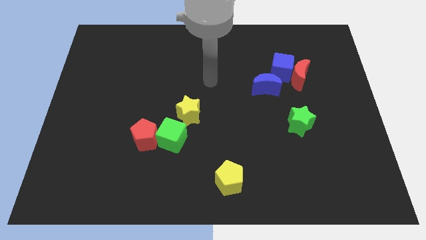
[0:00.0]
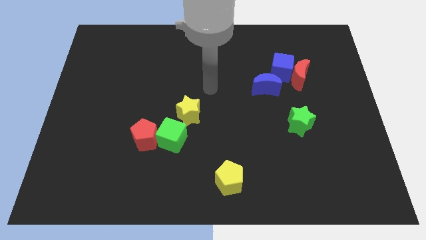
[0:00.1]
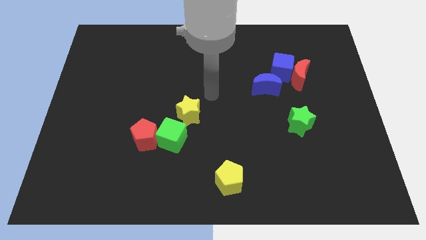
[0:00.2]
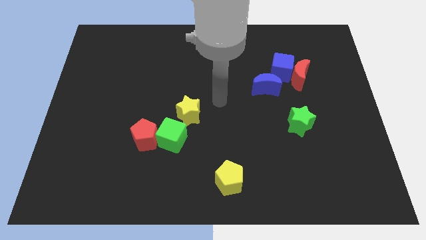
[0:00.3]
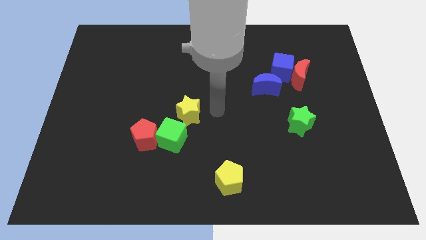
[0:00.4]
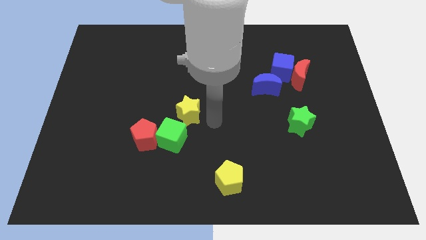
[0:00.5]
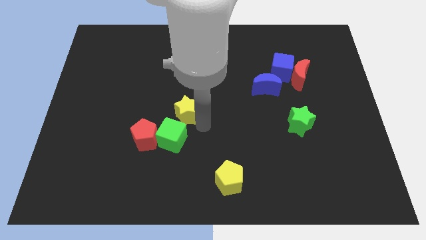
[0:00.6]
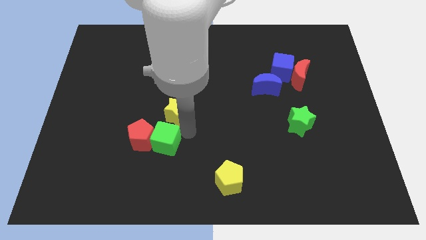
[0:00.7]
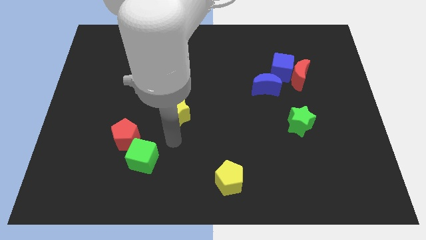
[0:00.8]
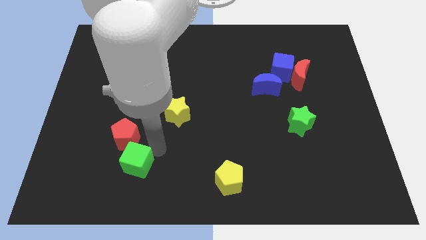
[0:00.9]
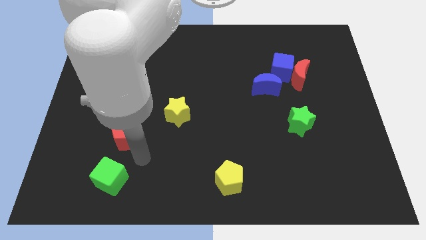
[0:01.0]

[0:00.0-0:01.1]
separate the red pentagon from the green cube

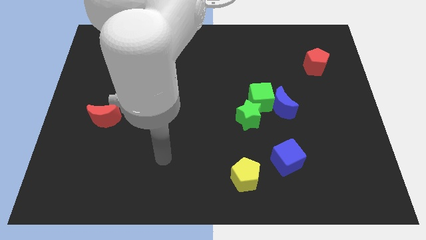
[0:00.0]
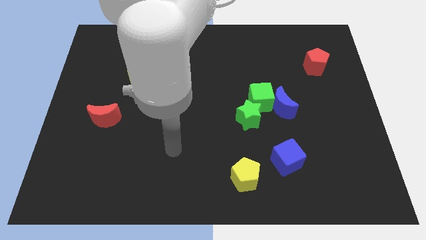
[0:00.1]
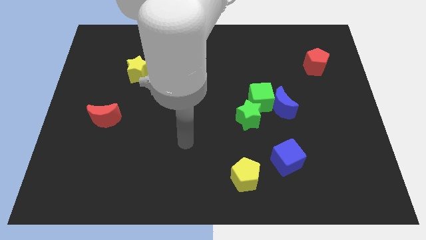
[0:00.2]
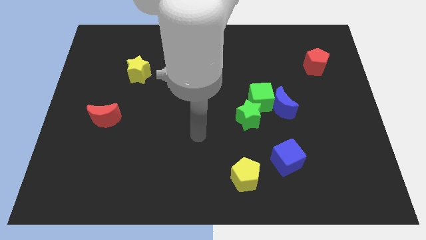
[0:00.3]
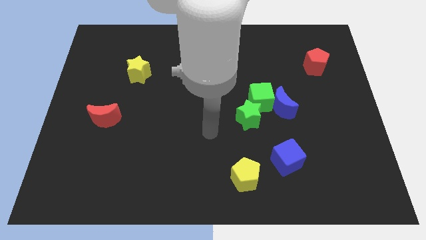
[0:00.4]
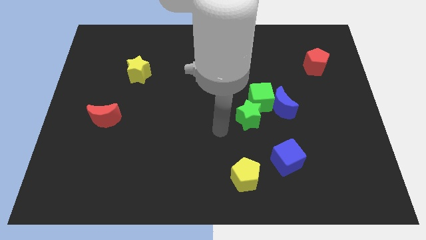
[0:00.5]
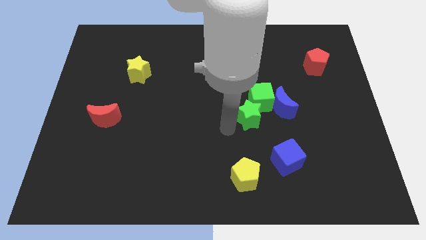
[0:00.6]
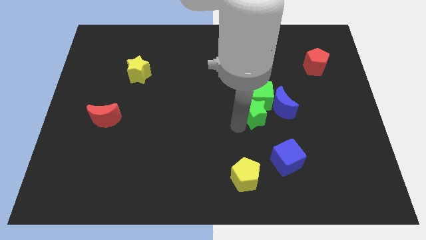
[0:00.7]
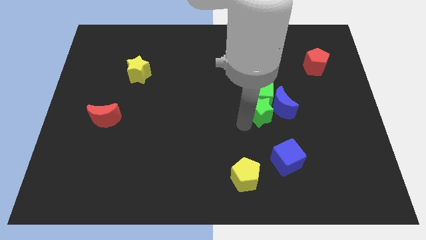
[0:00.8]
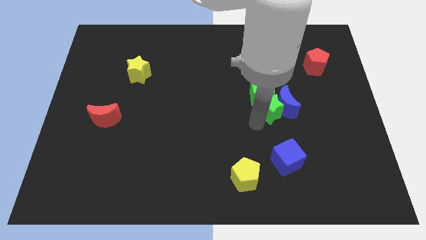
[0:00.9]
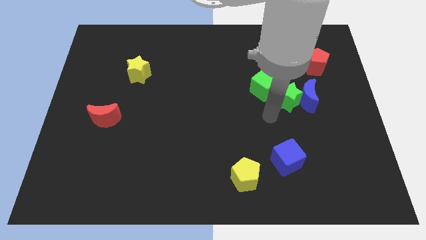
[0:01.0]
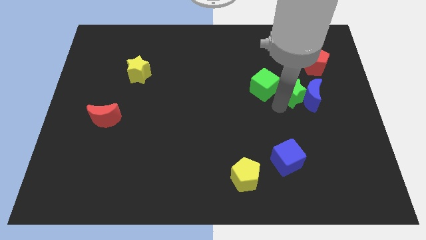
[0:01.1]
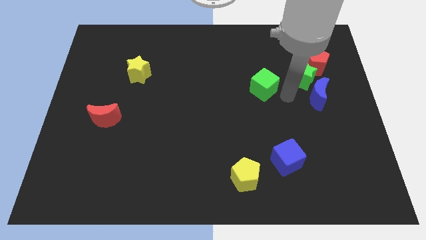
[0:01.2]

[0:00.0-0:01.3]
pull the green cube apart from the blue moon and green star

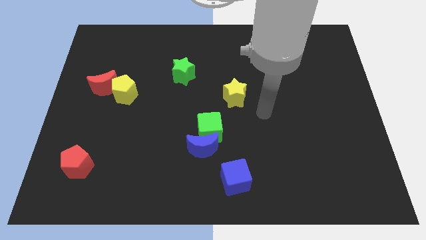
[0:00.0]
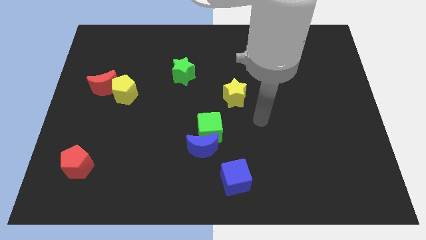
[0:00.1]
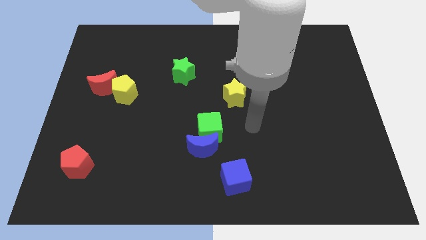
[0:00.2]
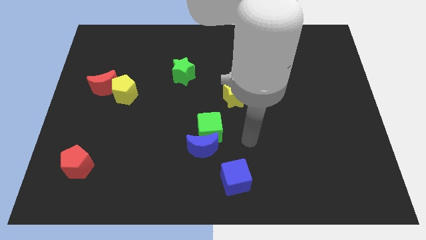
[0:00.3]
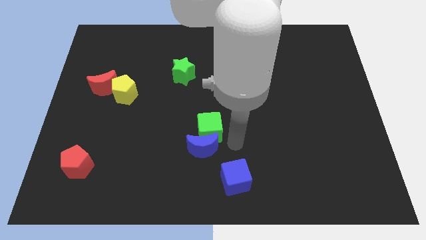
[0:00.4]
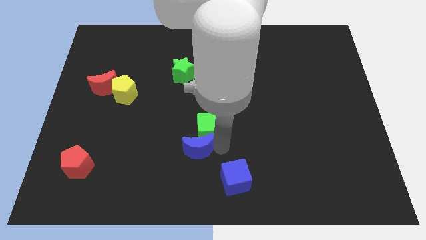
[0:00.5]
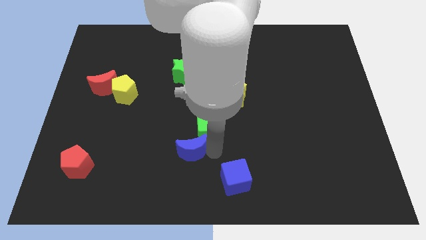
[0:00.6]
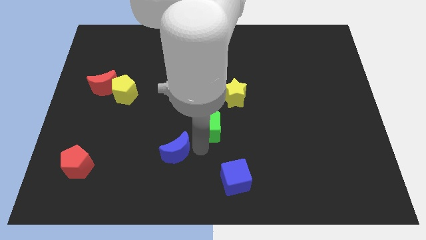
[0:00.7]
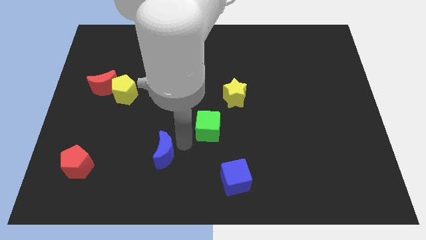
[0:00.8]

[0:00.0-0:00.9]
separate the green cube from the blue moon

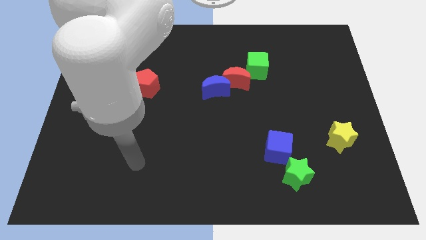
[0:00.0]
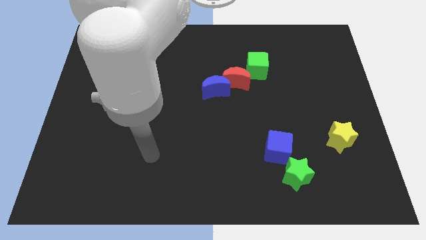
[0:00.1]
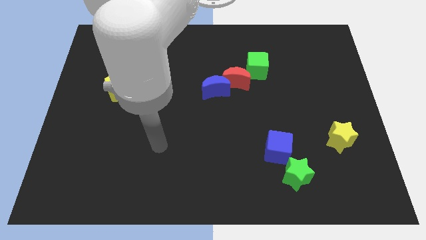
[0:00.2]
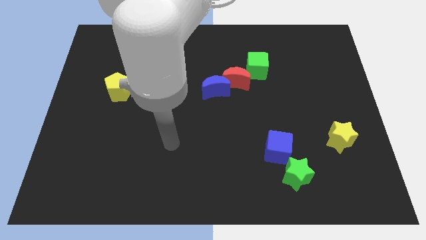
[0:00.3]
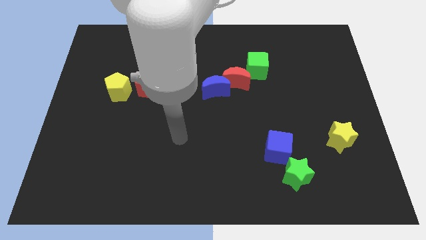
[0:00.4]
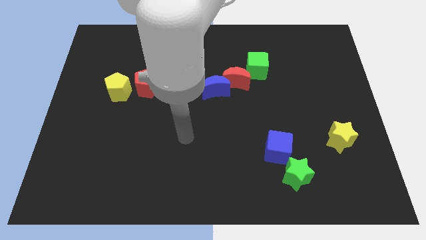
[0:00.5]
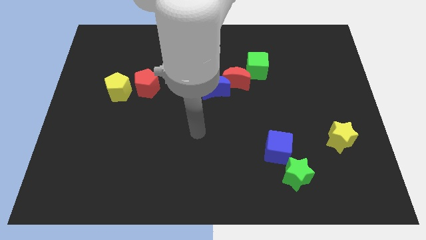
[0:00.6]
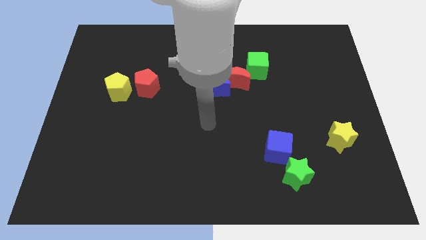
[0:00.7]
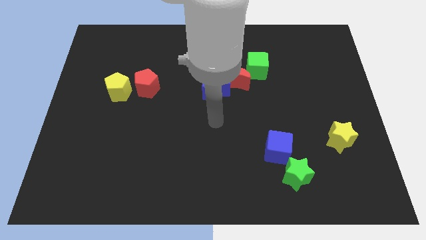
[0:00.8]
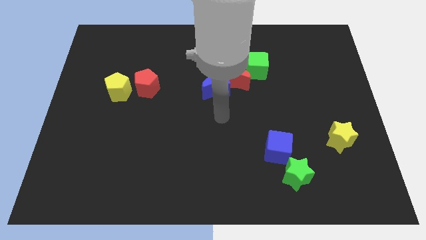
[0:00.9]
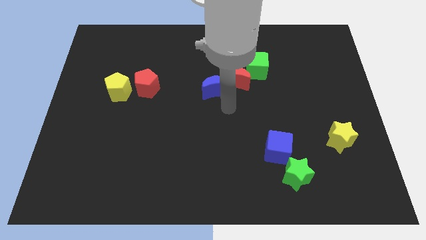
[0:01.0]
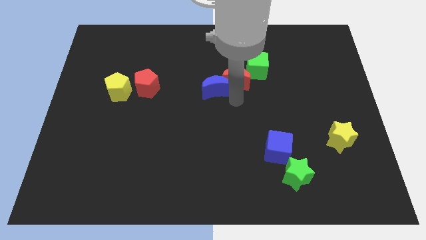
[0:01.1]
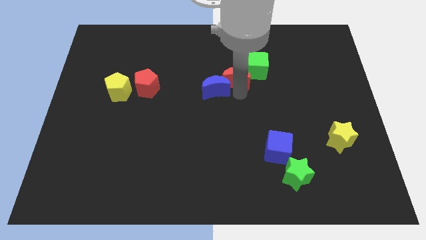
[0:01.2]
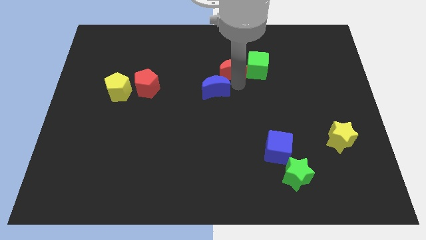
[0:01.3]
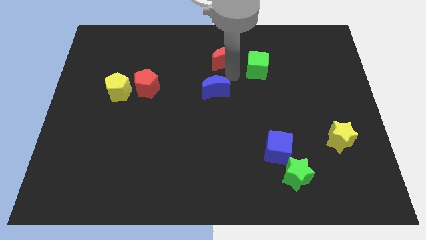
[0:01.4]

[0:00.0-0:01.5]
separate the blue moon from the red moon

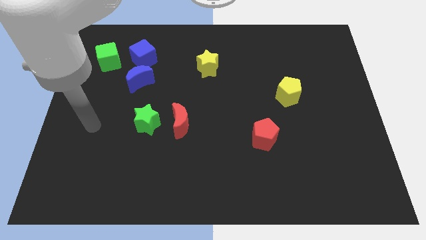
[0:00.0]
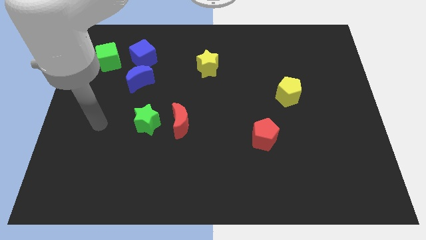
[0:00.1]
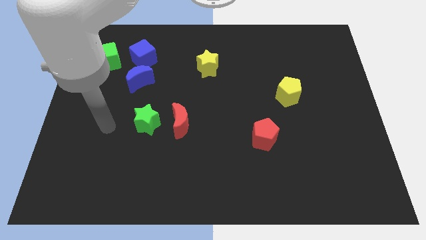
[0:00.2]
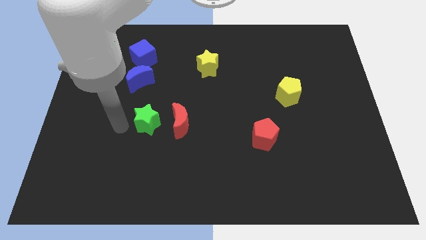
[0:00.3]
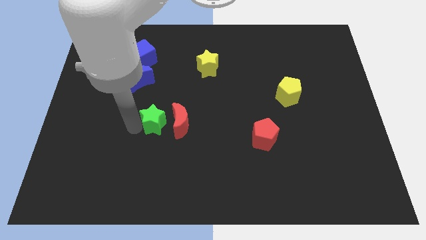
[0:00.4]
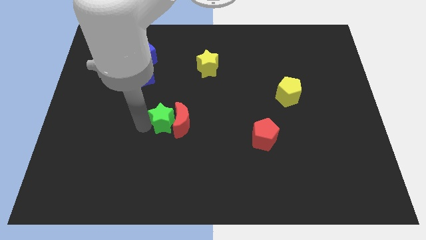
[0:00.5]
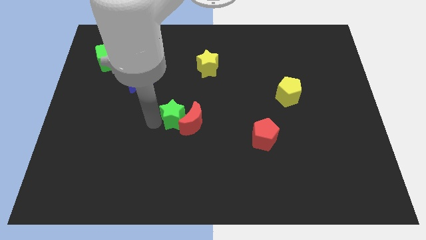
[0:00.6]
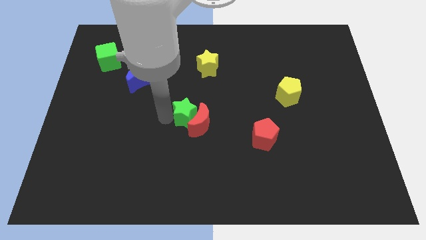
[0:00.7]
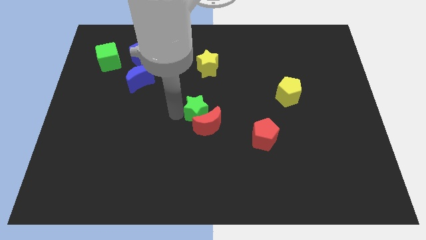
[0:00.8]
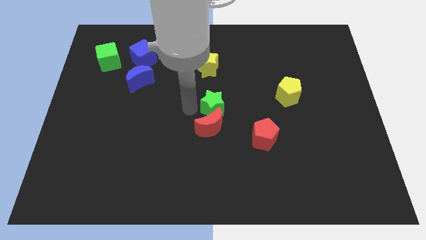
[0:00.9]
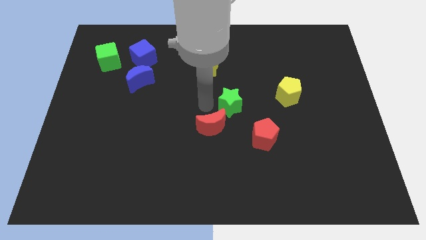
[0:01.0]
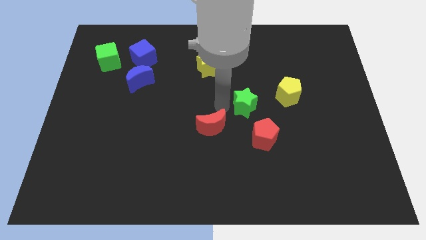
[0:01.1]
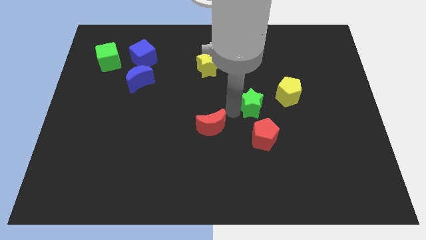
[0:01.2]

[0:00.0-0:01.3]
pull the red moon apart from the green star

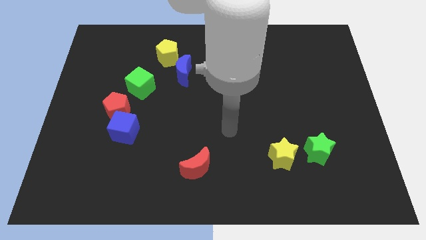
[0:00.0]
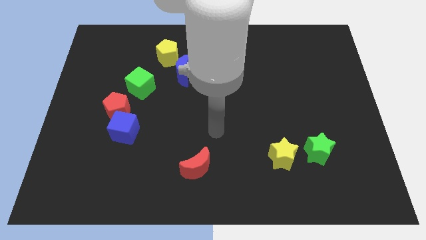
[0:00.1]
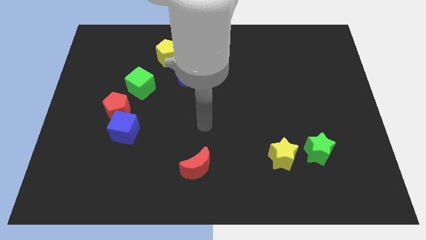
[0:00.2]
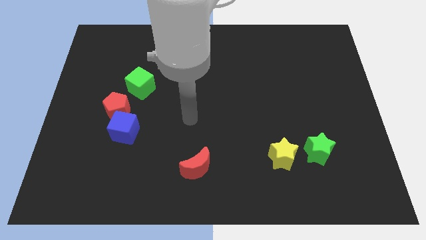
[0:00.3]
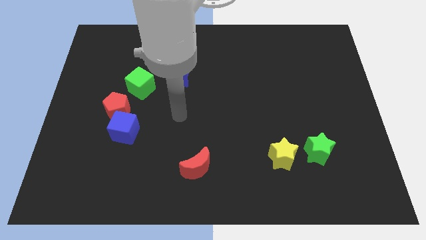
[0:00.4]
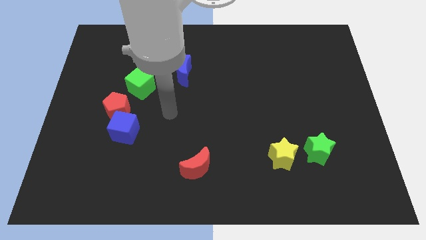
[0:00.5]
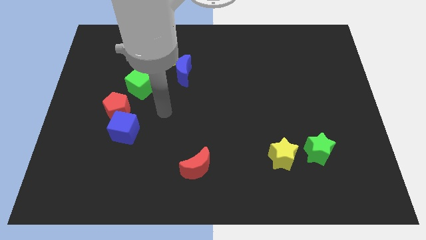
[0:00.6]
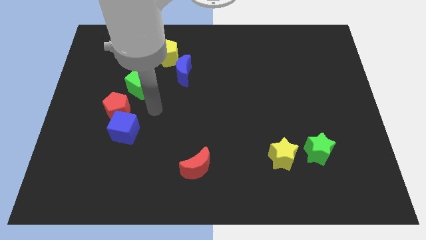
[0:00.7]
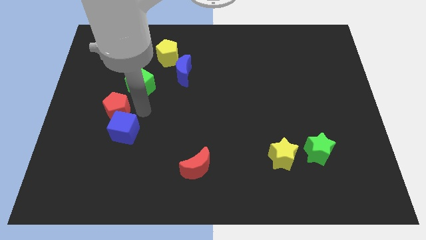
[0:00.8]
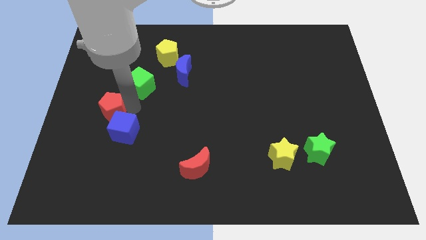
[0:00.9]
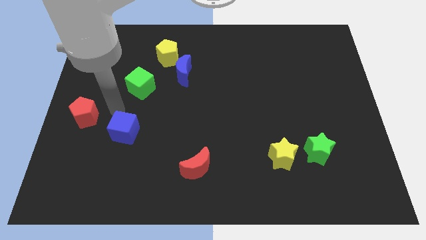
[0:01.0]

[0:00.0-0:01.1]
move the blue cube away from the red pentagon

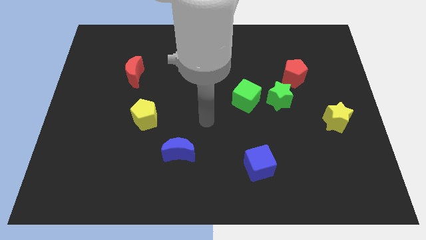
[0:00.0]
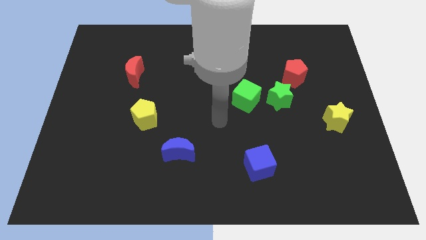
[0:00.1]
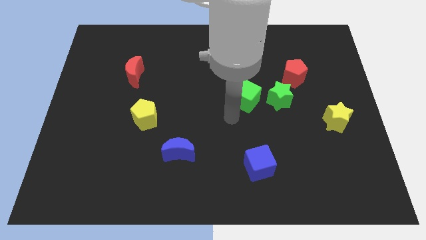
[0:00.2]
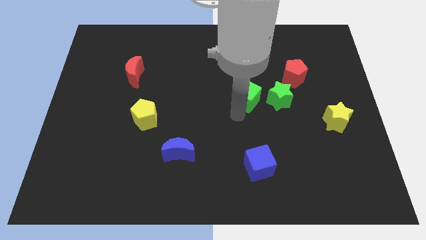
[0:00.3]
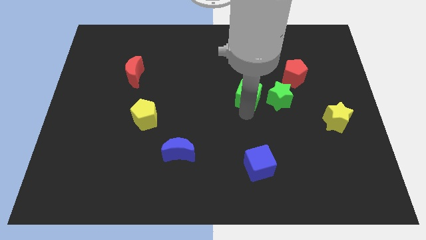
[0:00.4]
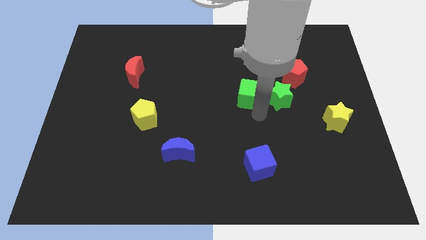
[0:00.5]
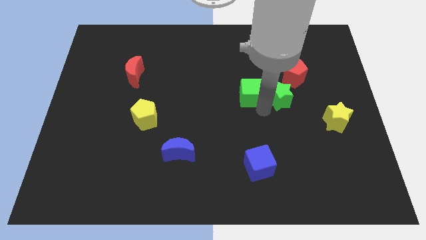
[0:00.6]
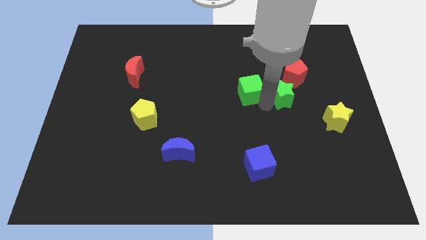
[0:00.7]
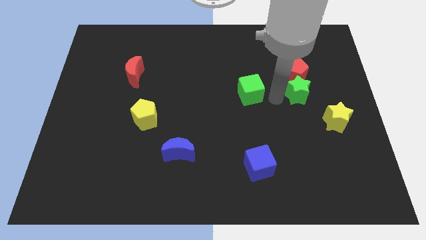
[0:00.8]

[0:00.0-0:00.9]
move the green cube away from the green star

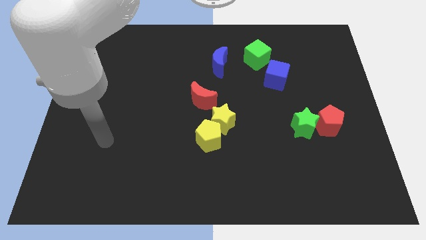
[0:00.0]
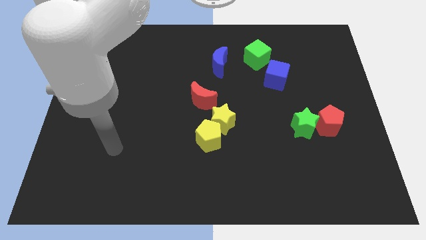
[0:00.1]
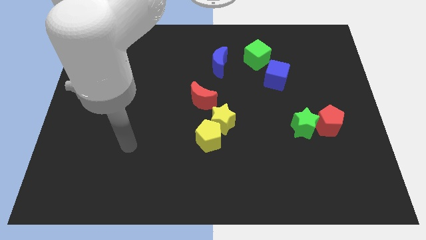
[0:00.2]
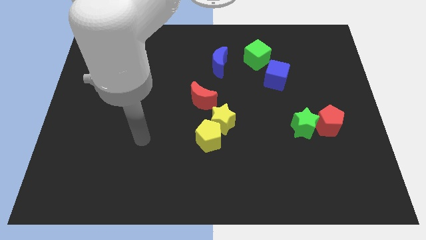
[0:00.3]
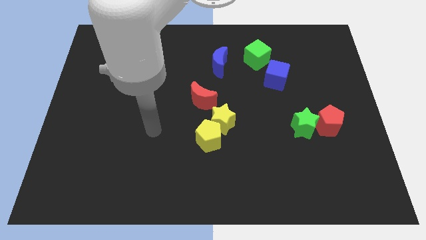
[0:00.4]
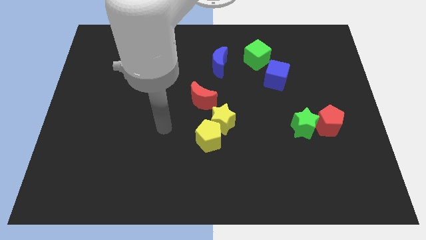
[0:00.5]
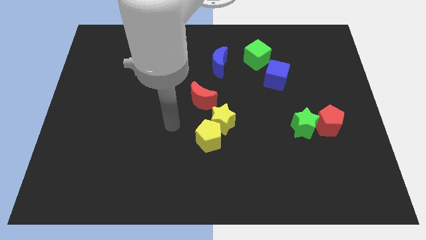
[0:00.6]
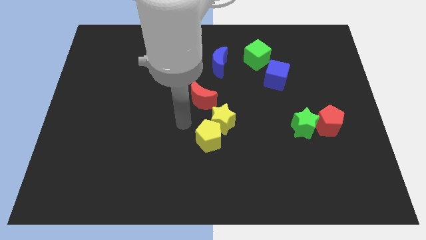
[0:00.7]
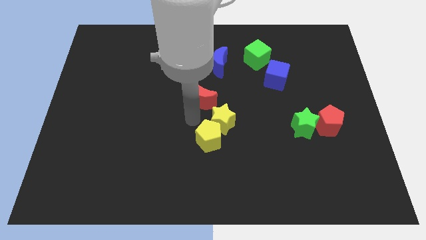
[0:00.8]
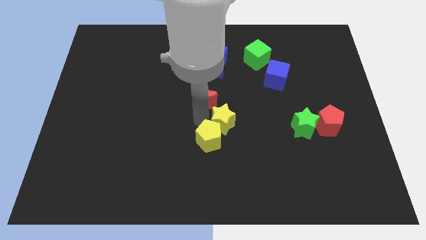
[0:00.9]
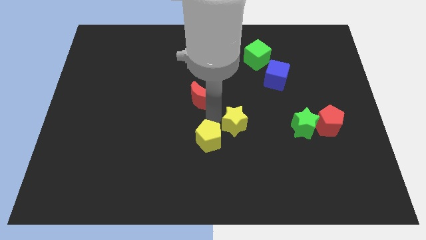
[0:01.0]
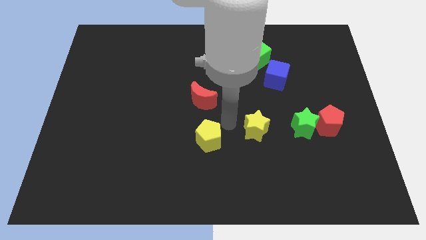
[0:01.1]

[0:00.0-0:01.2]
move the yellow pentagon away from the yellow star

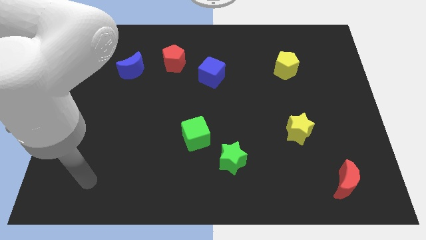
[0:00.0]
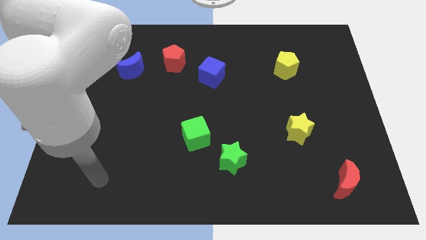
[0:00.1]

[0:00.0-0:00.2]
separate the green cube from the green star
